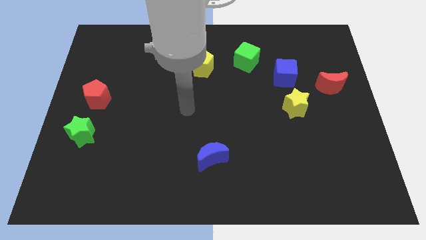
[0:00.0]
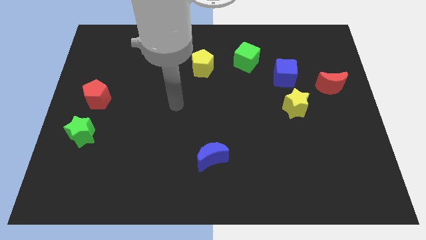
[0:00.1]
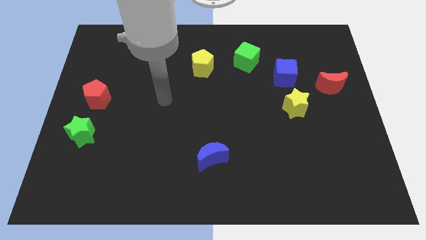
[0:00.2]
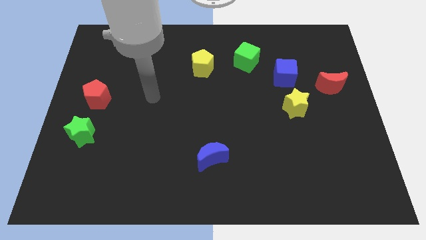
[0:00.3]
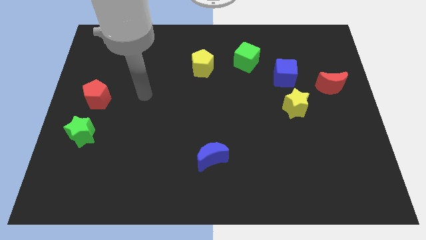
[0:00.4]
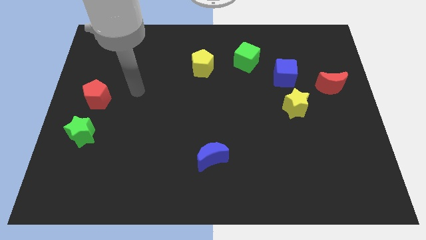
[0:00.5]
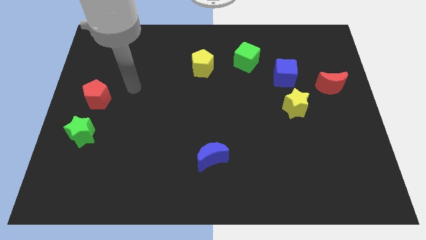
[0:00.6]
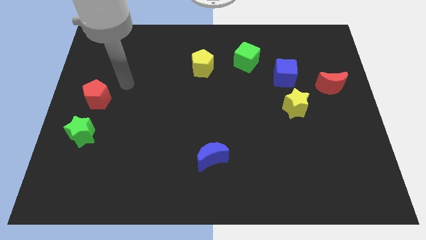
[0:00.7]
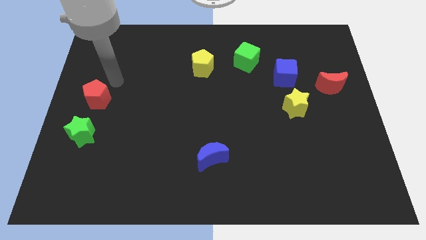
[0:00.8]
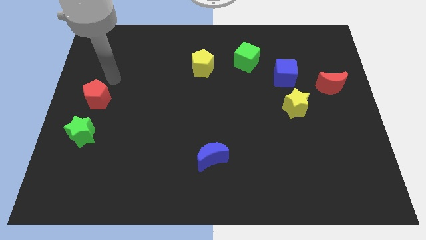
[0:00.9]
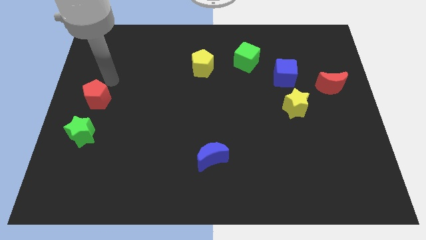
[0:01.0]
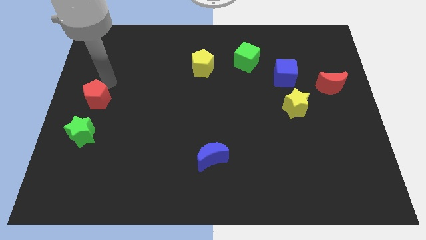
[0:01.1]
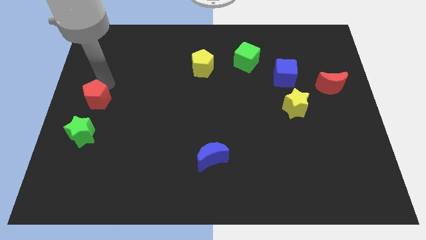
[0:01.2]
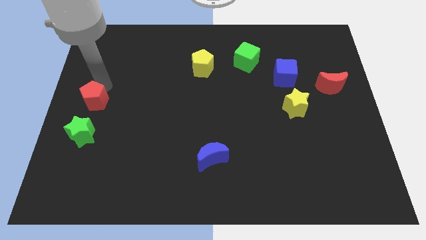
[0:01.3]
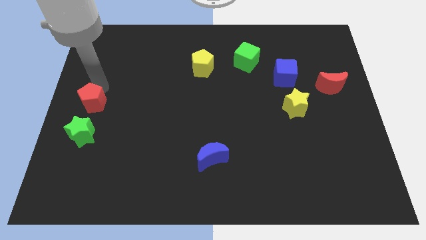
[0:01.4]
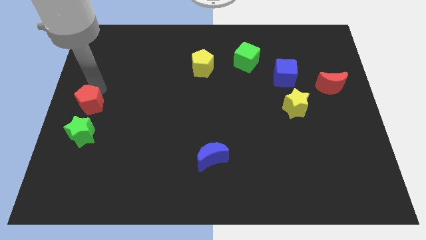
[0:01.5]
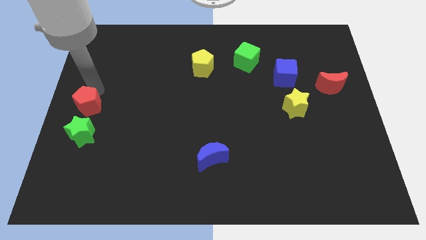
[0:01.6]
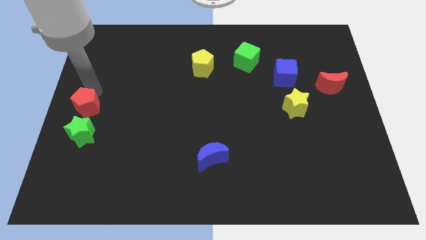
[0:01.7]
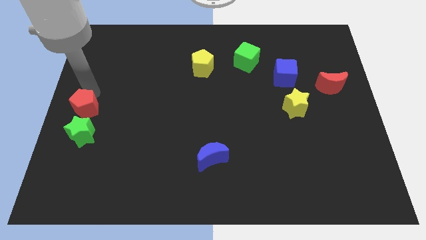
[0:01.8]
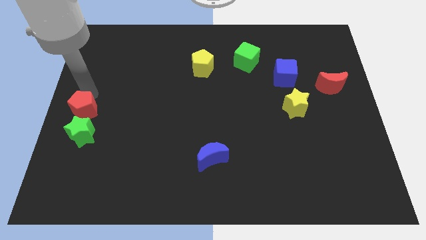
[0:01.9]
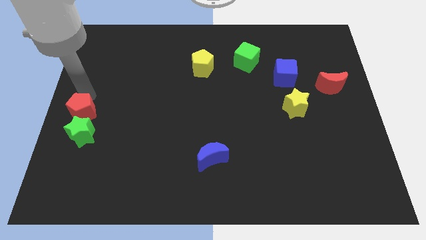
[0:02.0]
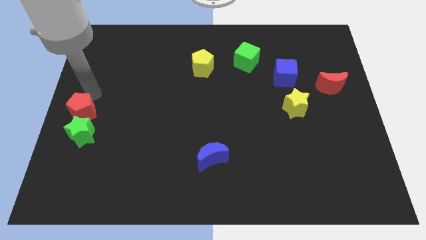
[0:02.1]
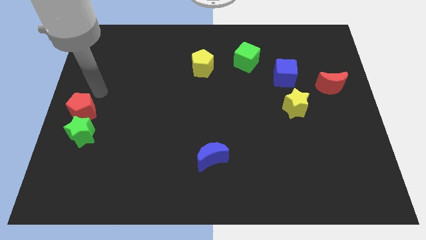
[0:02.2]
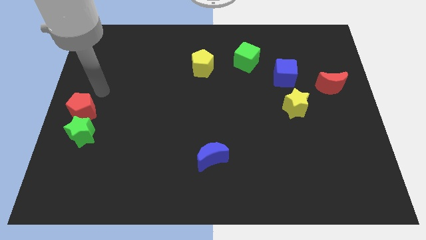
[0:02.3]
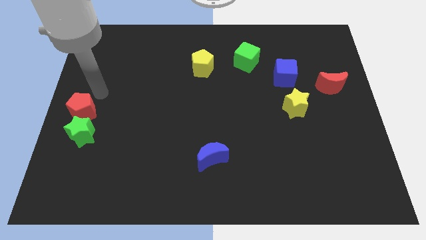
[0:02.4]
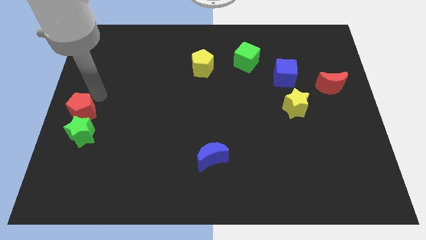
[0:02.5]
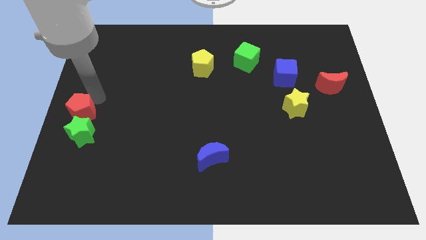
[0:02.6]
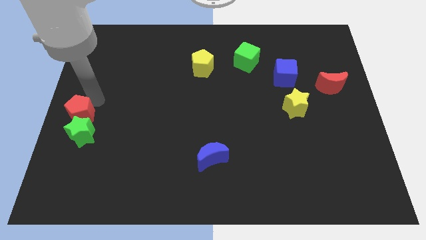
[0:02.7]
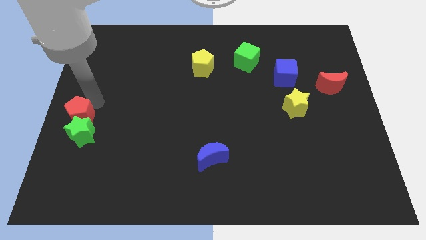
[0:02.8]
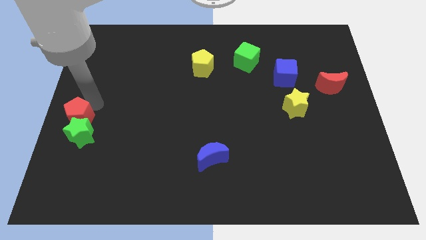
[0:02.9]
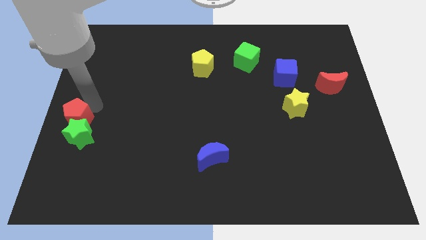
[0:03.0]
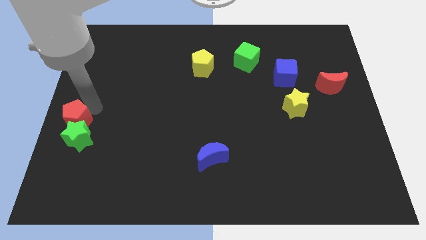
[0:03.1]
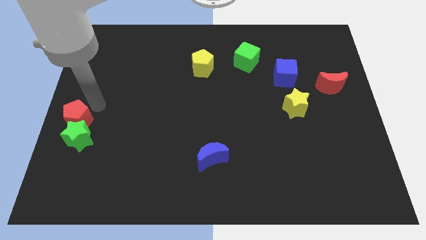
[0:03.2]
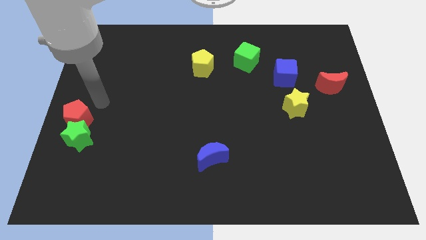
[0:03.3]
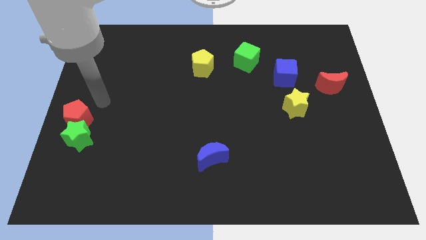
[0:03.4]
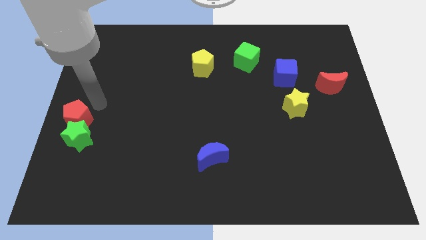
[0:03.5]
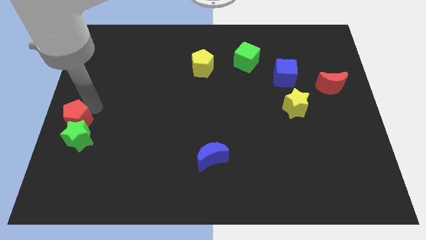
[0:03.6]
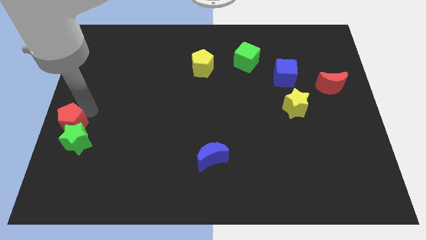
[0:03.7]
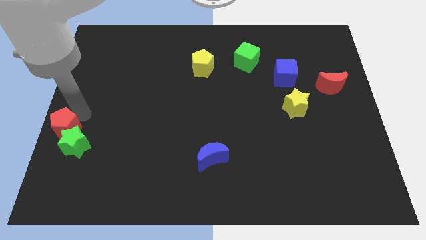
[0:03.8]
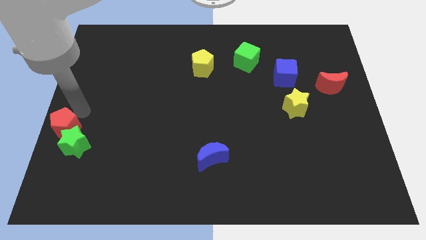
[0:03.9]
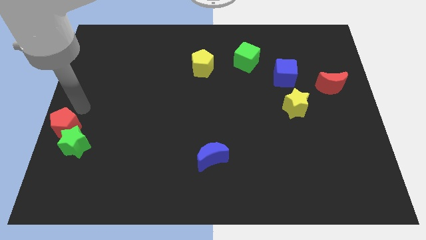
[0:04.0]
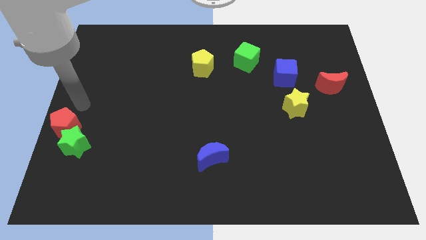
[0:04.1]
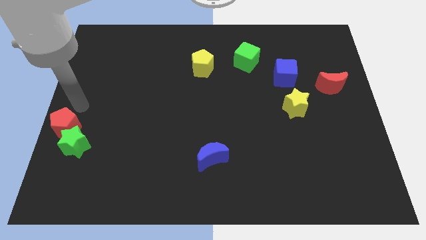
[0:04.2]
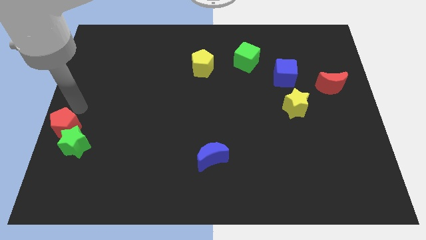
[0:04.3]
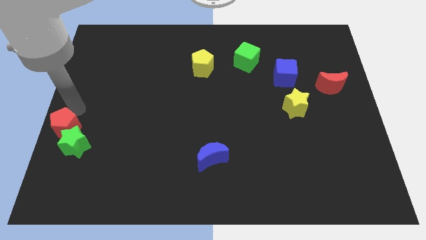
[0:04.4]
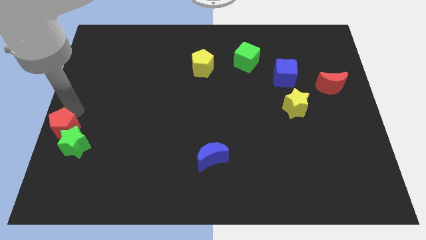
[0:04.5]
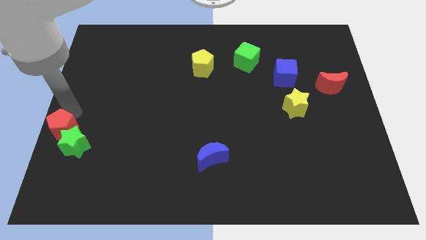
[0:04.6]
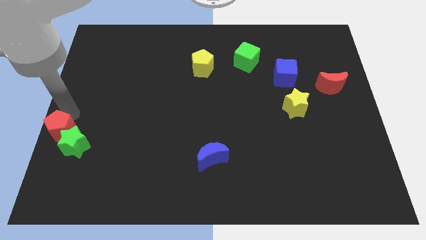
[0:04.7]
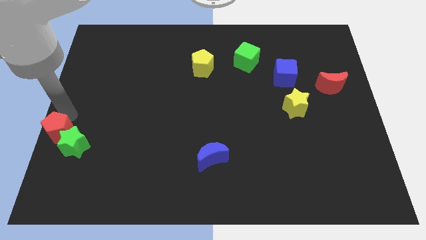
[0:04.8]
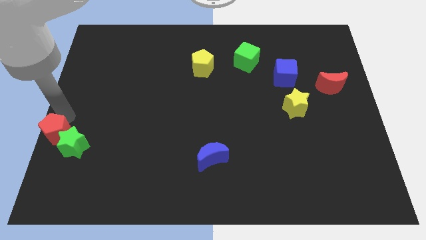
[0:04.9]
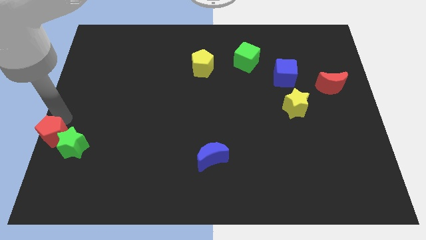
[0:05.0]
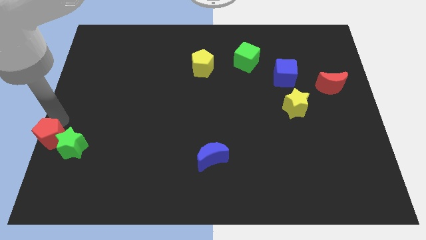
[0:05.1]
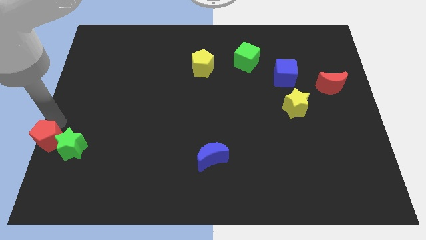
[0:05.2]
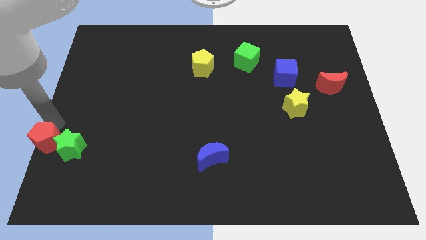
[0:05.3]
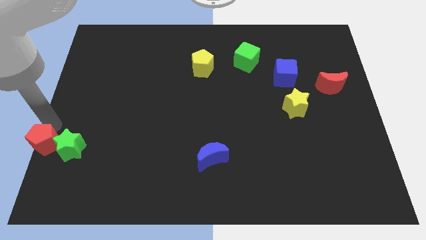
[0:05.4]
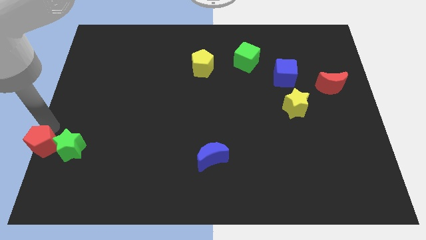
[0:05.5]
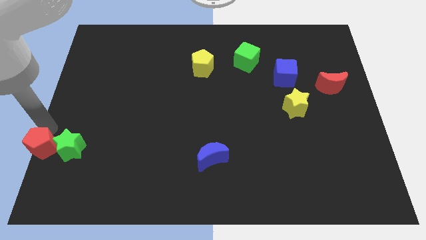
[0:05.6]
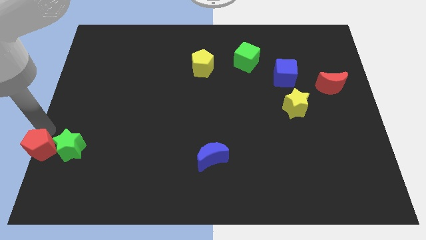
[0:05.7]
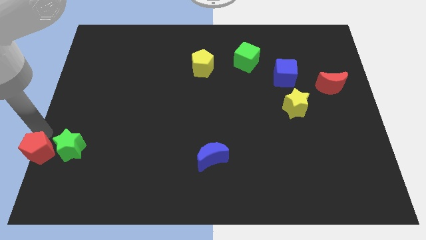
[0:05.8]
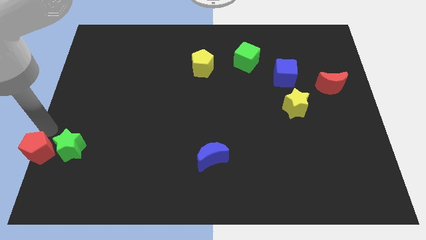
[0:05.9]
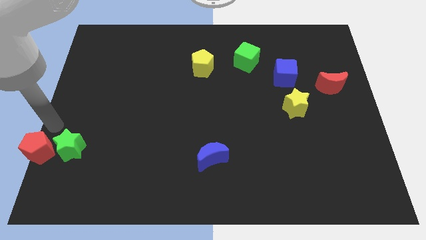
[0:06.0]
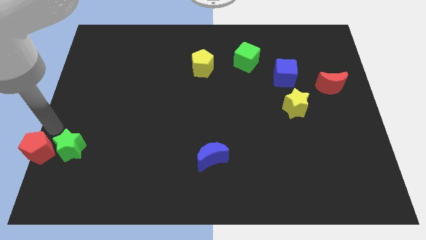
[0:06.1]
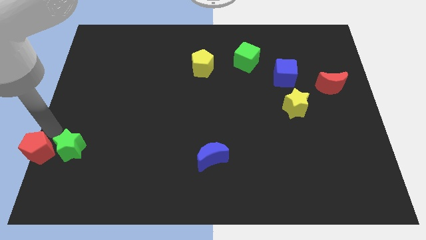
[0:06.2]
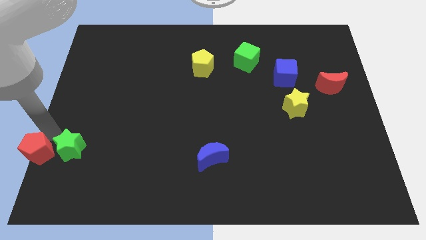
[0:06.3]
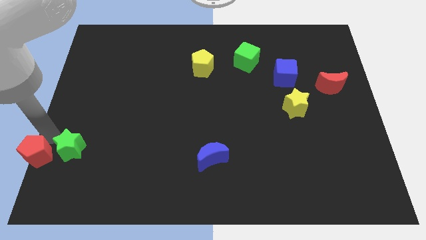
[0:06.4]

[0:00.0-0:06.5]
put the red pentagon to the lower left corner

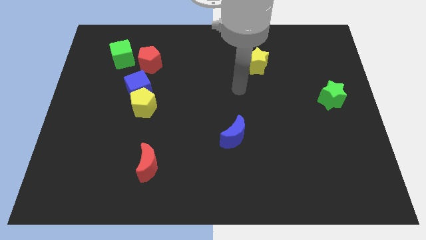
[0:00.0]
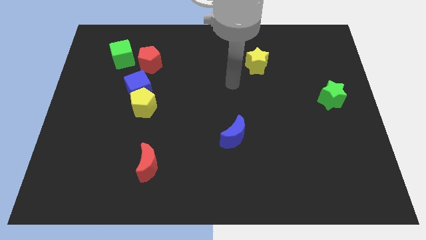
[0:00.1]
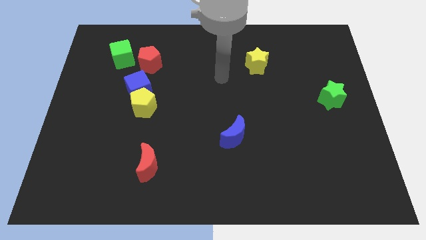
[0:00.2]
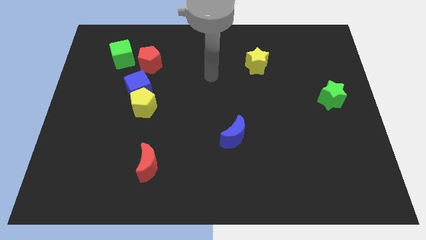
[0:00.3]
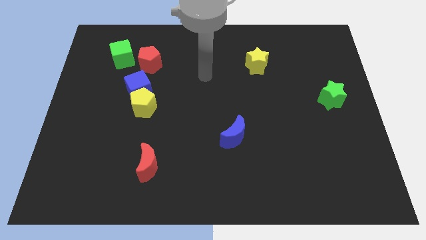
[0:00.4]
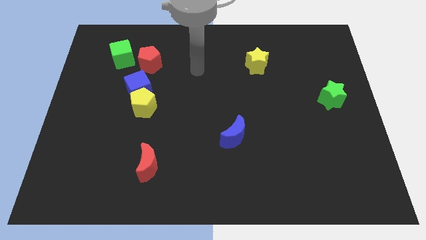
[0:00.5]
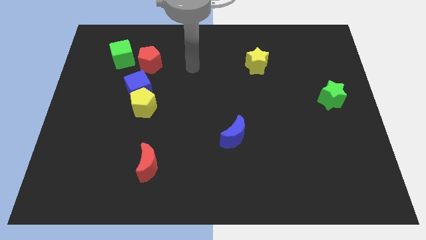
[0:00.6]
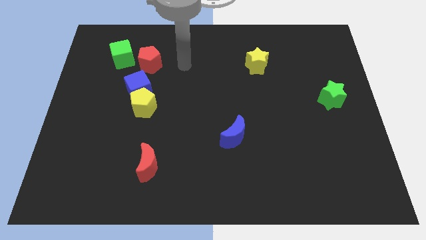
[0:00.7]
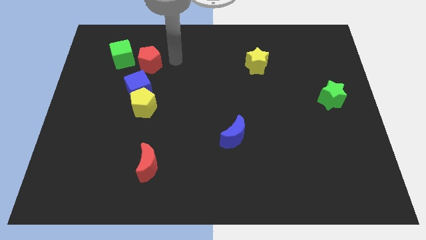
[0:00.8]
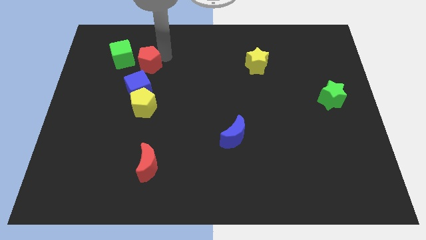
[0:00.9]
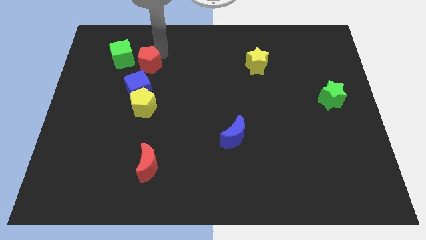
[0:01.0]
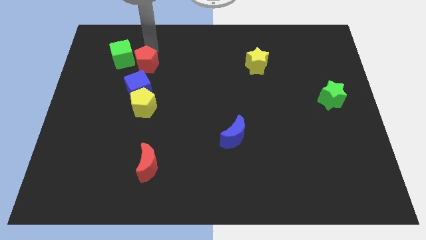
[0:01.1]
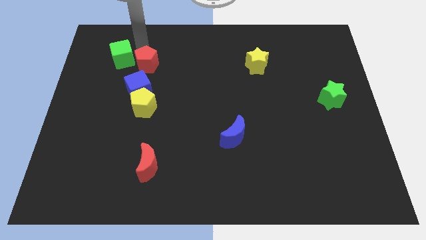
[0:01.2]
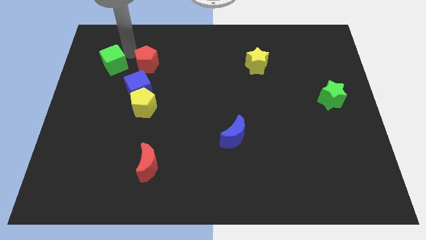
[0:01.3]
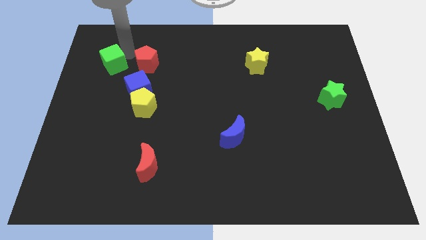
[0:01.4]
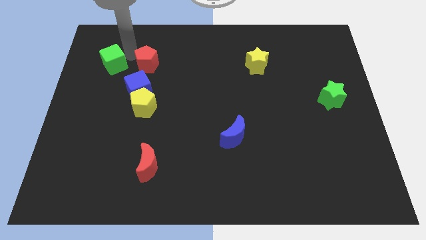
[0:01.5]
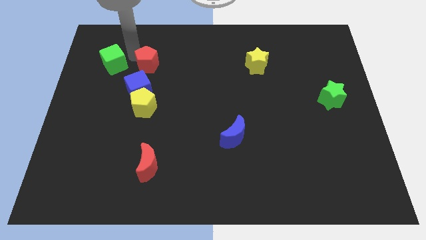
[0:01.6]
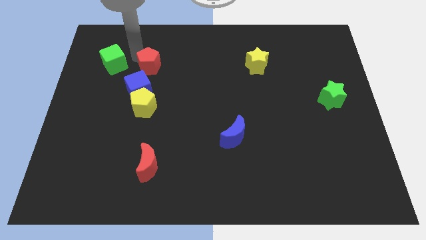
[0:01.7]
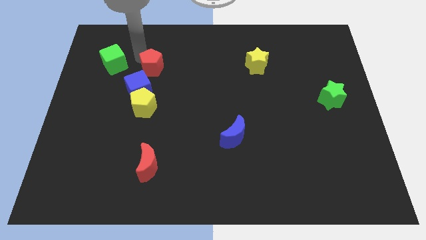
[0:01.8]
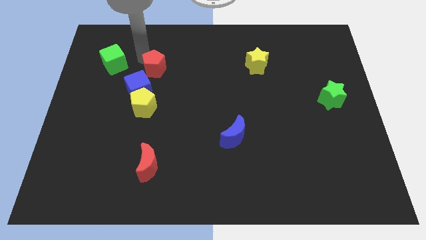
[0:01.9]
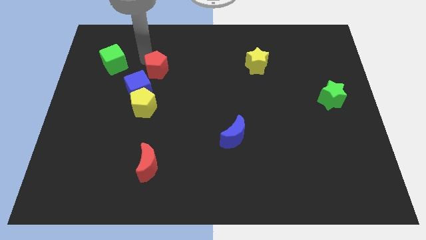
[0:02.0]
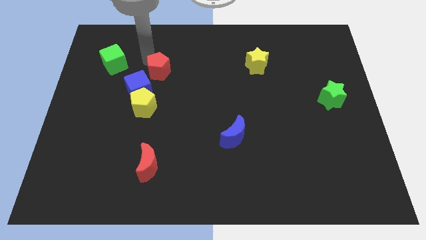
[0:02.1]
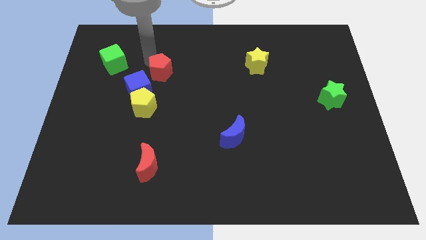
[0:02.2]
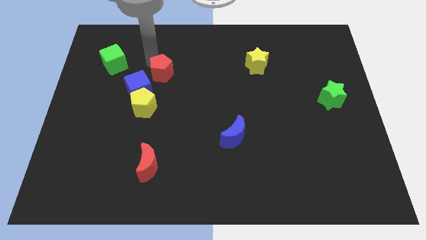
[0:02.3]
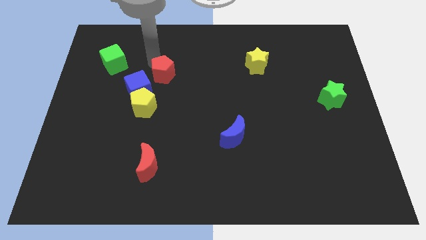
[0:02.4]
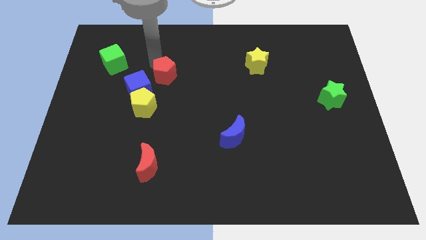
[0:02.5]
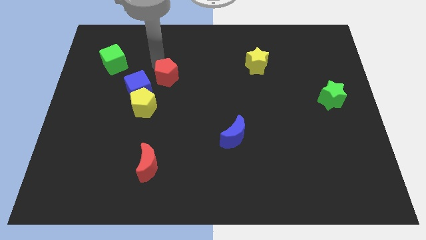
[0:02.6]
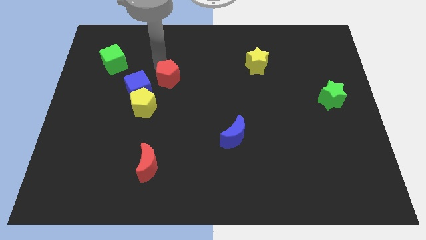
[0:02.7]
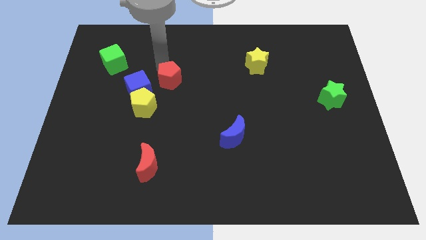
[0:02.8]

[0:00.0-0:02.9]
put the red pentagon to the center
